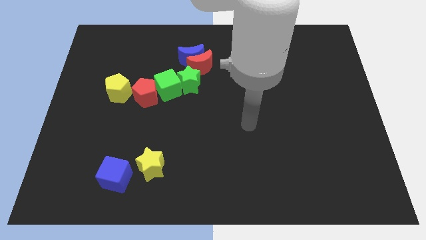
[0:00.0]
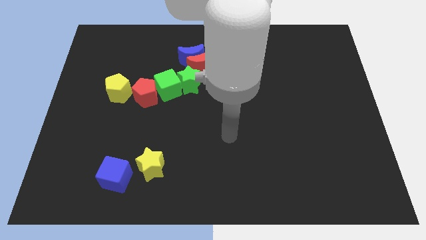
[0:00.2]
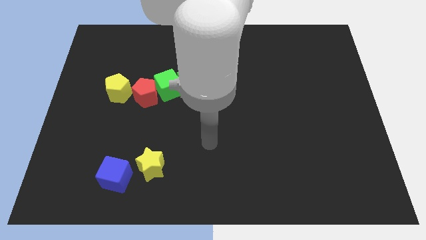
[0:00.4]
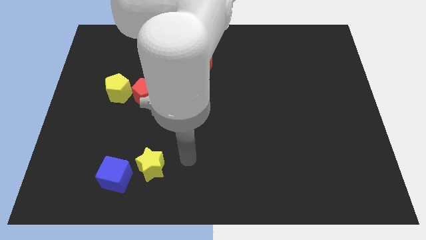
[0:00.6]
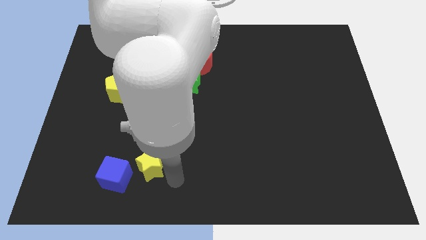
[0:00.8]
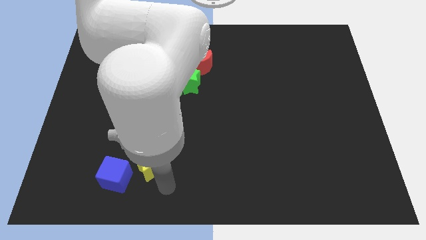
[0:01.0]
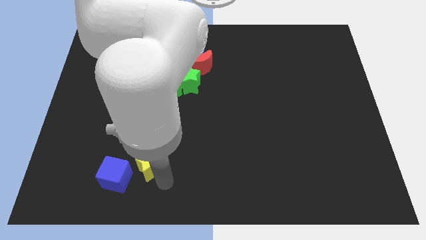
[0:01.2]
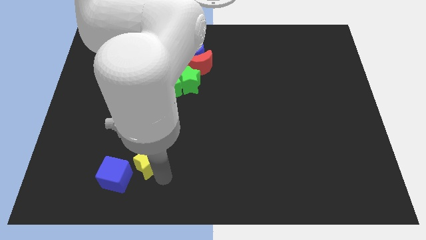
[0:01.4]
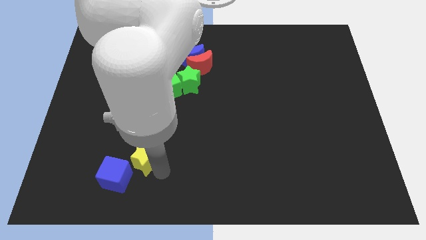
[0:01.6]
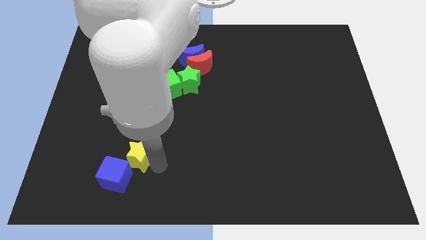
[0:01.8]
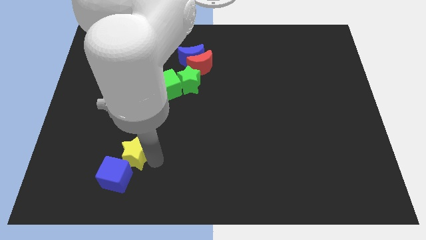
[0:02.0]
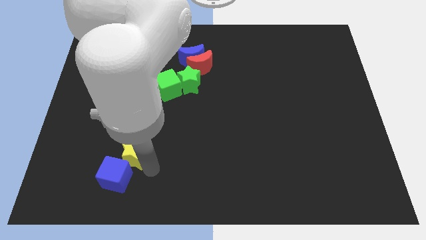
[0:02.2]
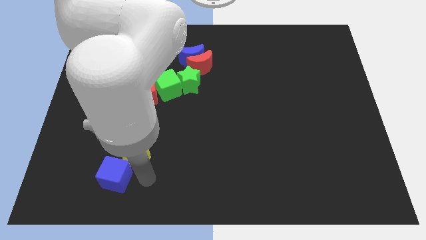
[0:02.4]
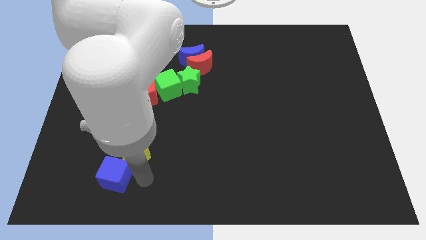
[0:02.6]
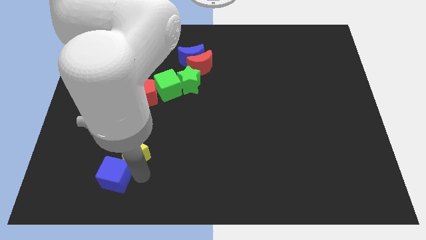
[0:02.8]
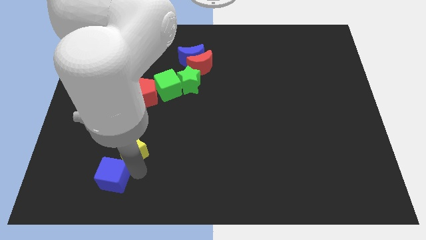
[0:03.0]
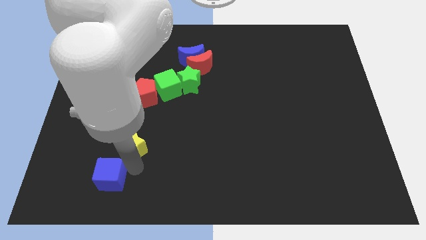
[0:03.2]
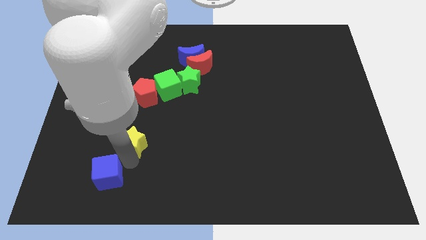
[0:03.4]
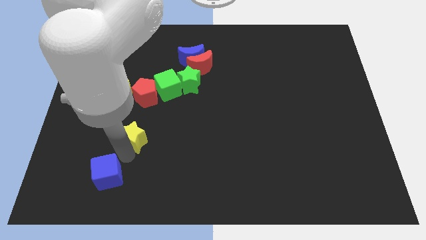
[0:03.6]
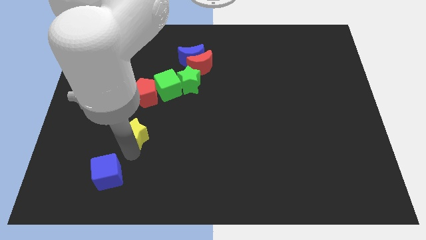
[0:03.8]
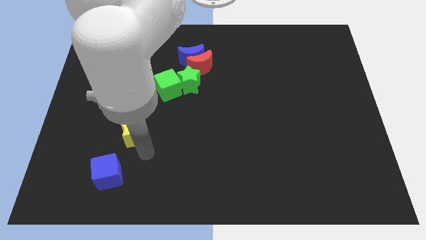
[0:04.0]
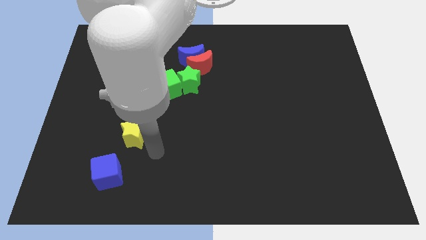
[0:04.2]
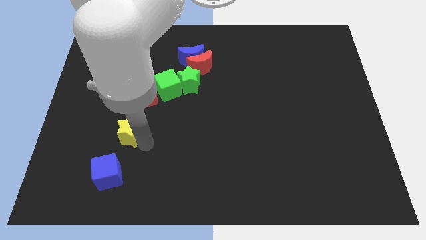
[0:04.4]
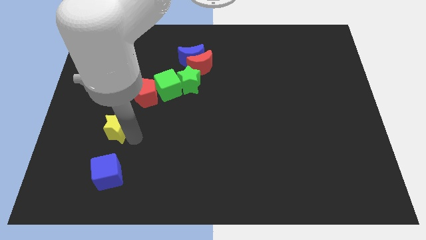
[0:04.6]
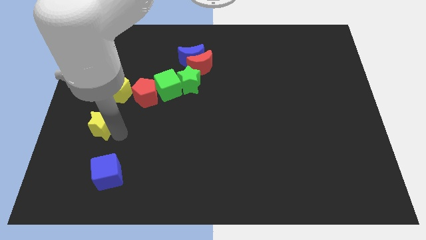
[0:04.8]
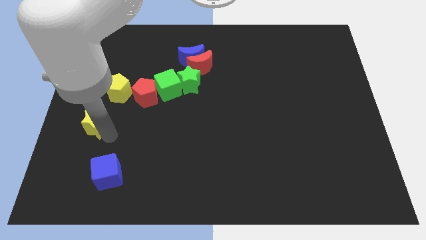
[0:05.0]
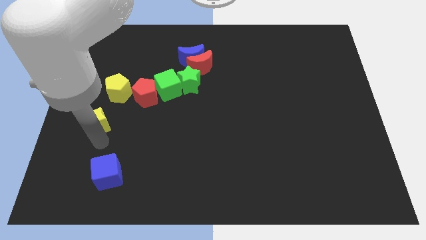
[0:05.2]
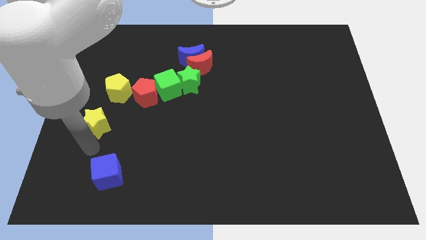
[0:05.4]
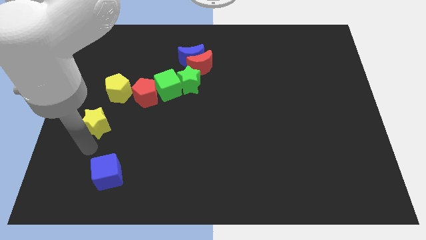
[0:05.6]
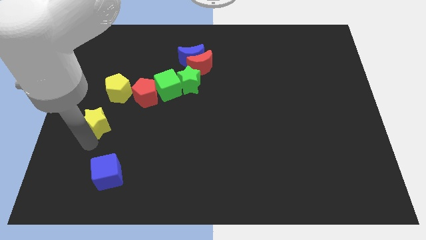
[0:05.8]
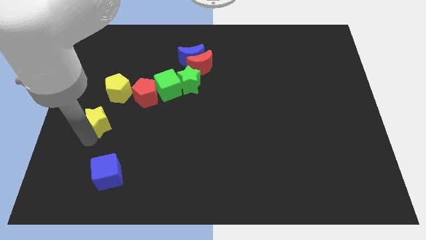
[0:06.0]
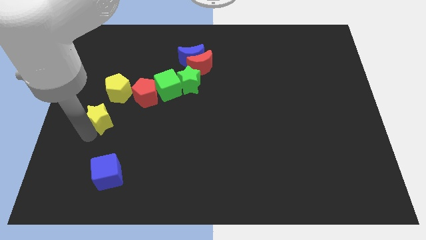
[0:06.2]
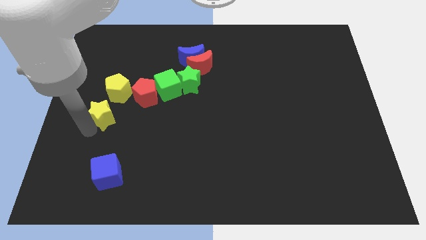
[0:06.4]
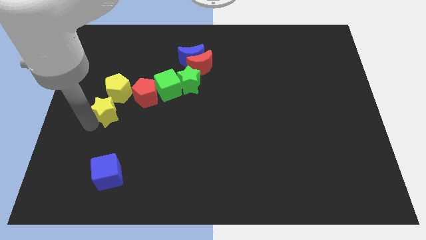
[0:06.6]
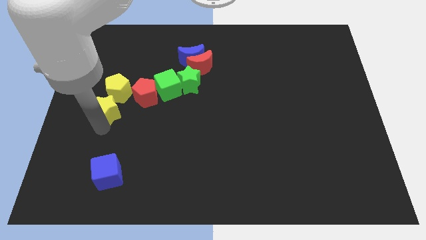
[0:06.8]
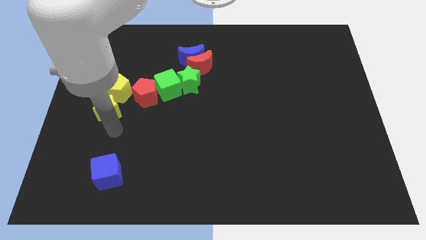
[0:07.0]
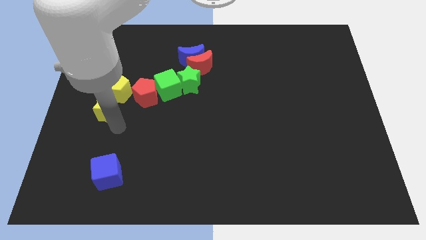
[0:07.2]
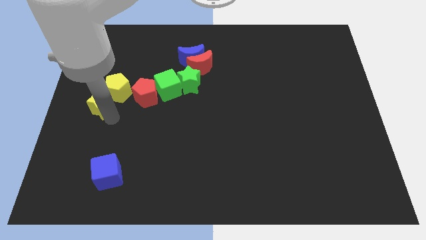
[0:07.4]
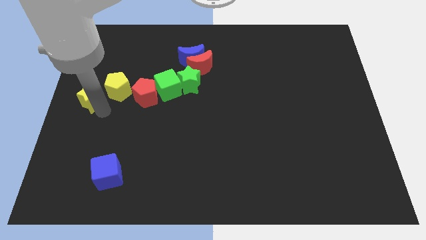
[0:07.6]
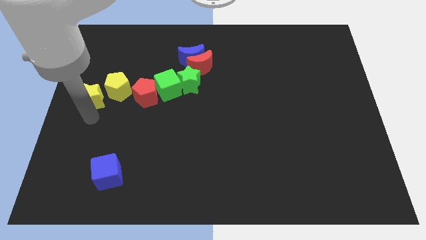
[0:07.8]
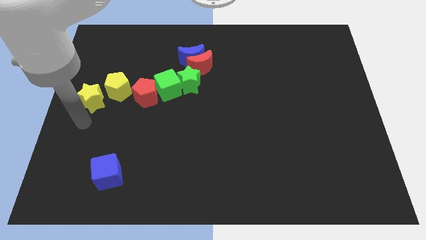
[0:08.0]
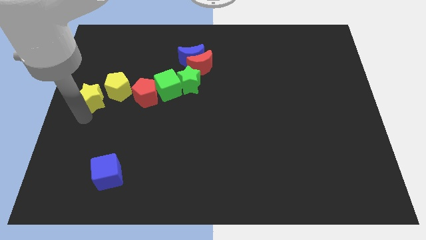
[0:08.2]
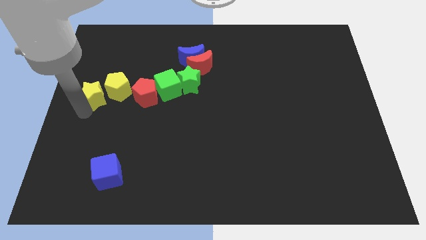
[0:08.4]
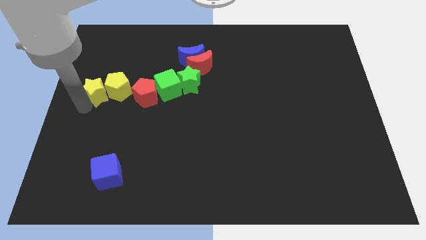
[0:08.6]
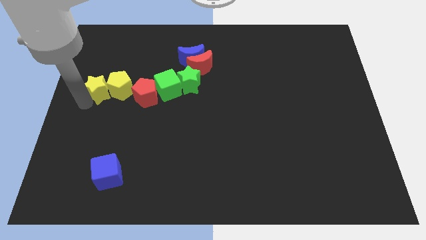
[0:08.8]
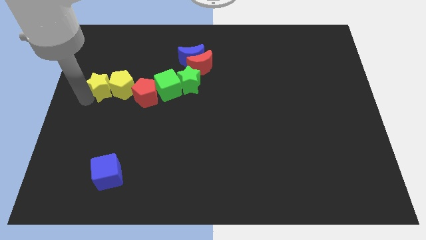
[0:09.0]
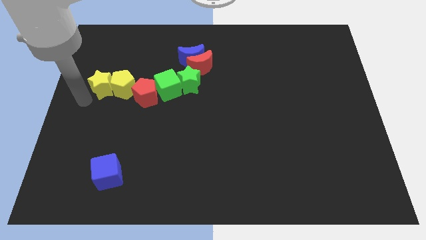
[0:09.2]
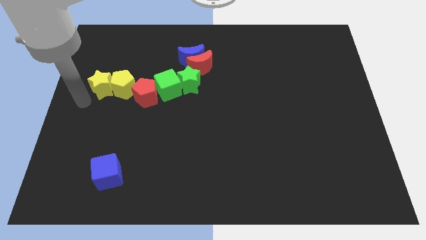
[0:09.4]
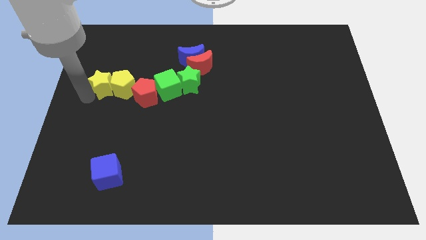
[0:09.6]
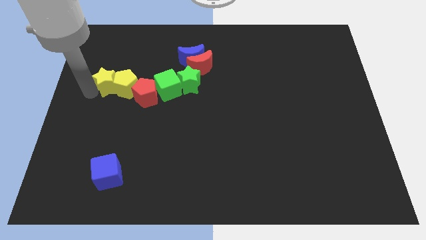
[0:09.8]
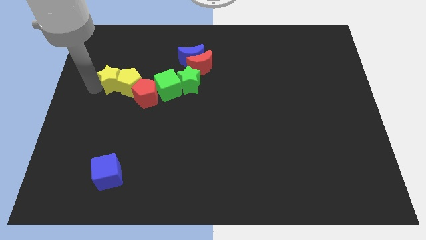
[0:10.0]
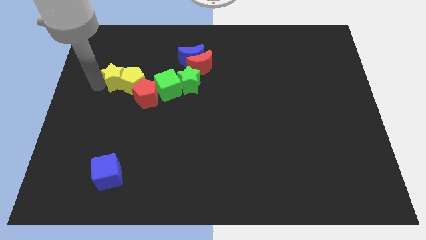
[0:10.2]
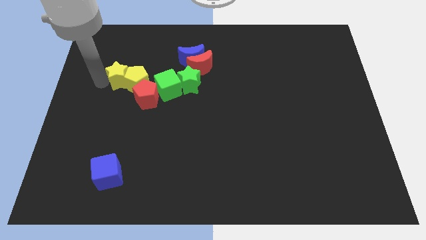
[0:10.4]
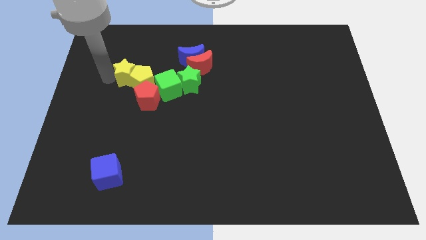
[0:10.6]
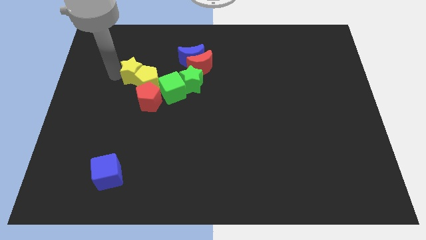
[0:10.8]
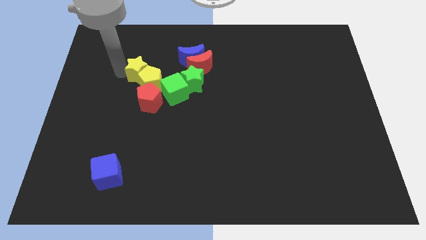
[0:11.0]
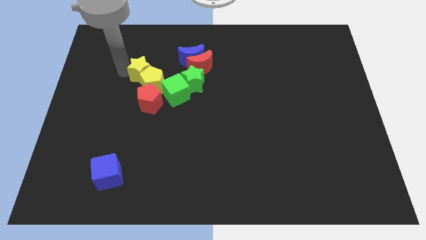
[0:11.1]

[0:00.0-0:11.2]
push the yellow star to the left of the blue moon

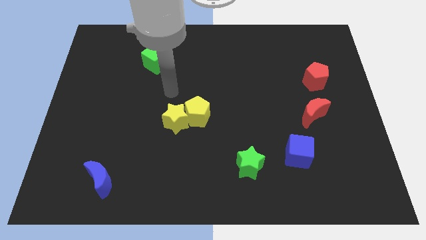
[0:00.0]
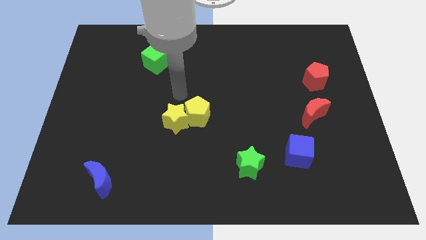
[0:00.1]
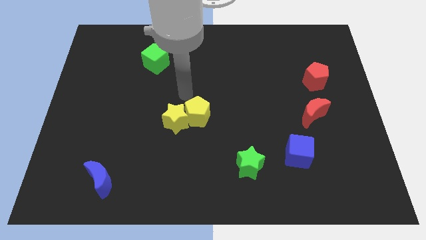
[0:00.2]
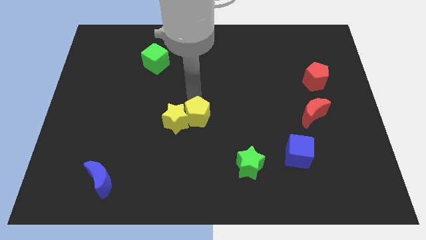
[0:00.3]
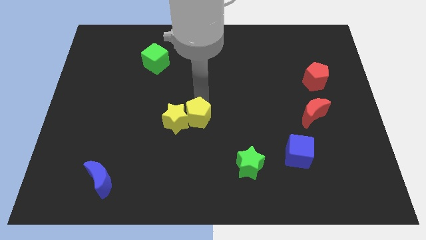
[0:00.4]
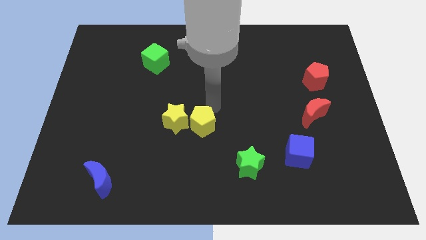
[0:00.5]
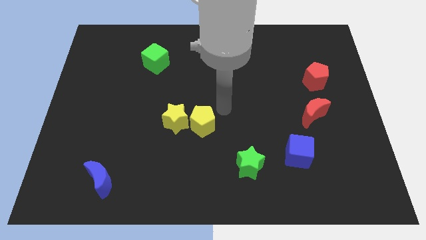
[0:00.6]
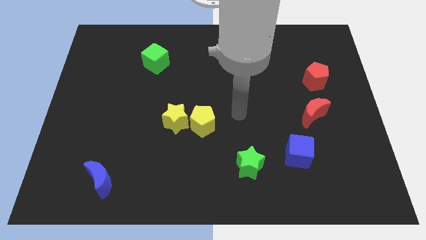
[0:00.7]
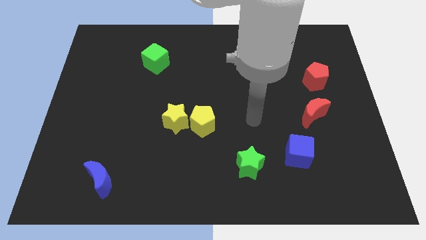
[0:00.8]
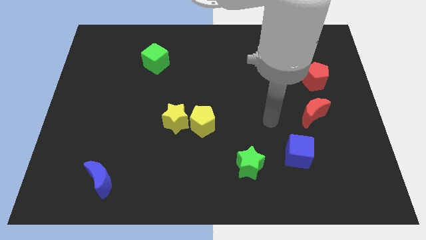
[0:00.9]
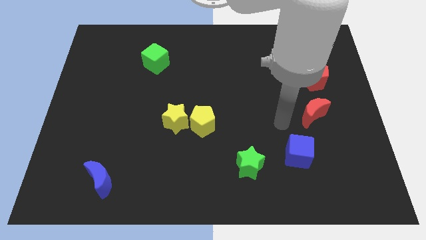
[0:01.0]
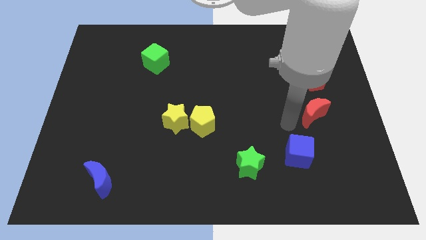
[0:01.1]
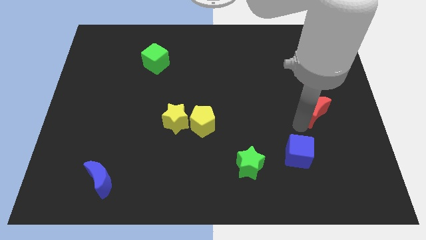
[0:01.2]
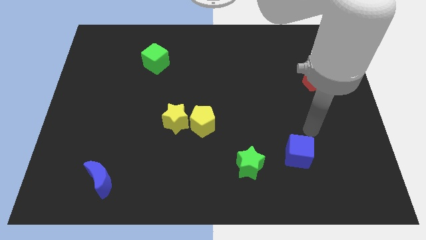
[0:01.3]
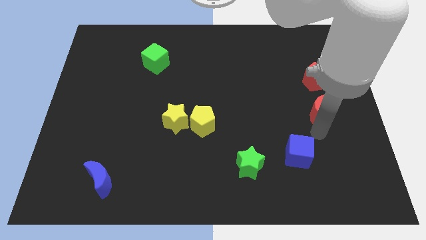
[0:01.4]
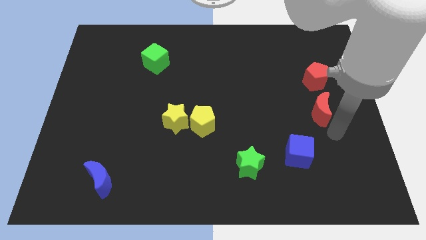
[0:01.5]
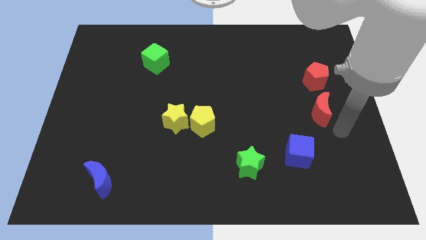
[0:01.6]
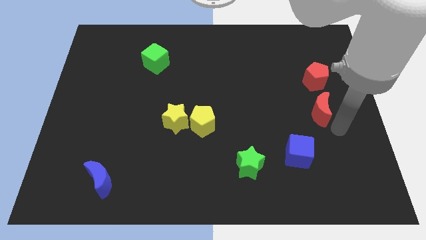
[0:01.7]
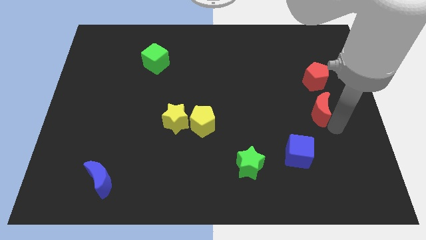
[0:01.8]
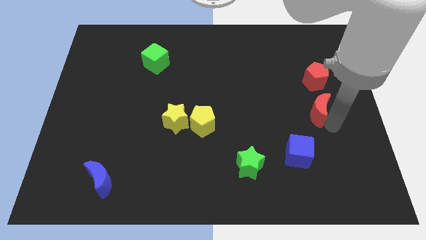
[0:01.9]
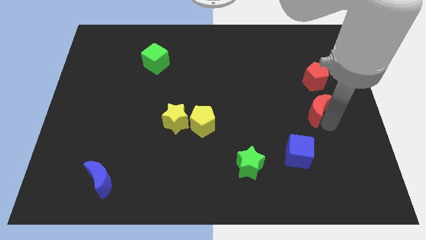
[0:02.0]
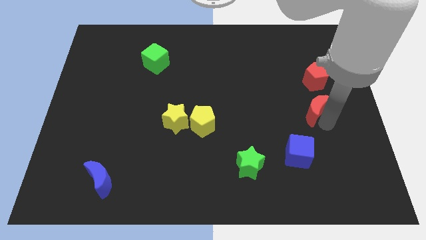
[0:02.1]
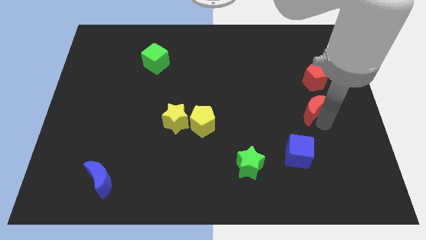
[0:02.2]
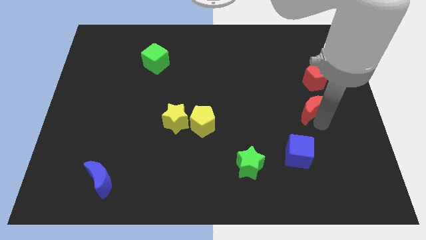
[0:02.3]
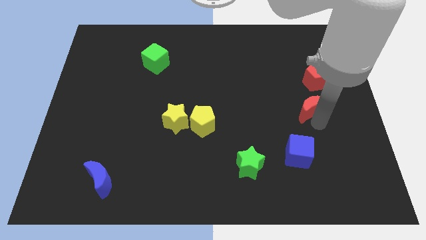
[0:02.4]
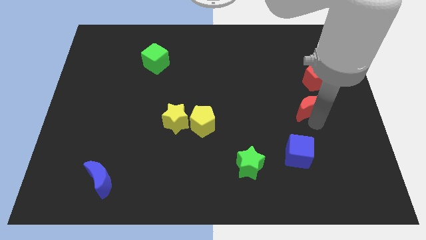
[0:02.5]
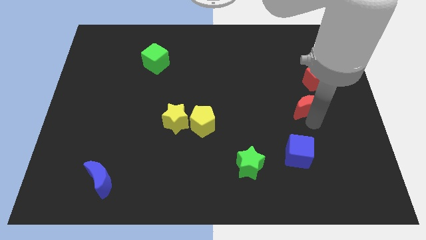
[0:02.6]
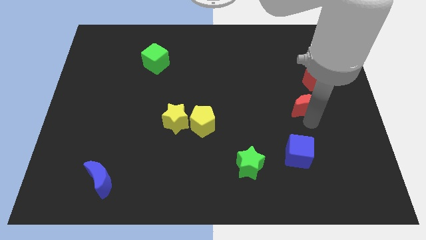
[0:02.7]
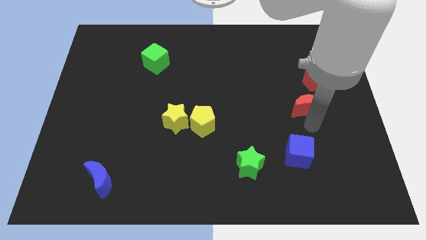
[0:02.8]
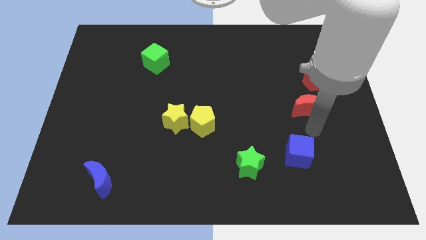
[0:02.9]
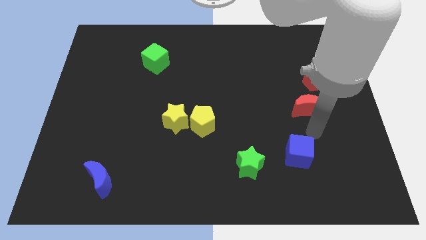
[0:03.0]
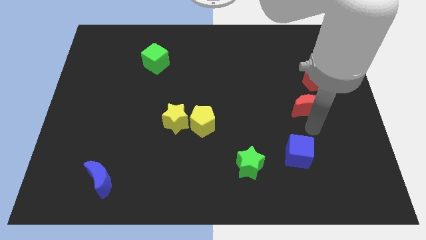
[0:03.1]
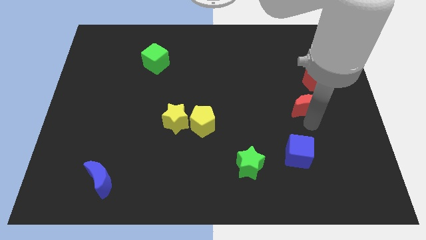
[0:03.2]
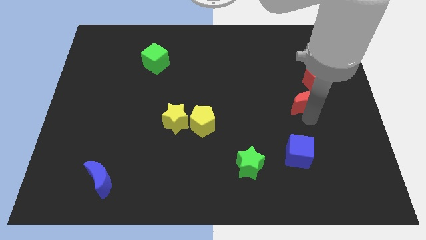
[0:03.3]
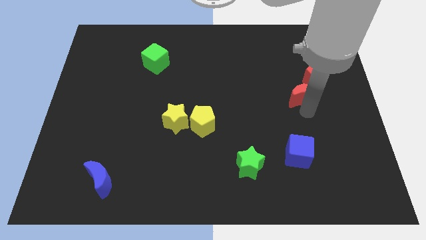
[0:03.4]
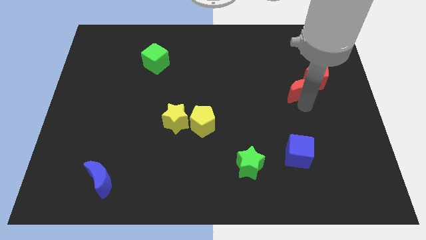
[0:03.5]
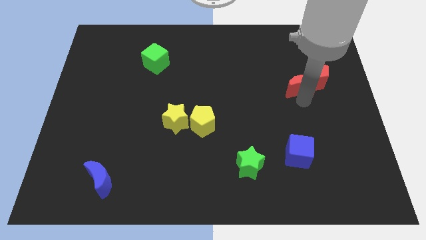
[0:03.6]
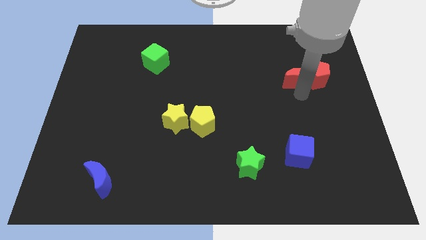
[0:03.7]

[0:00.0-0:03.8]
push the red moon to the top left side of the red pentagon
